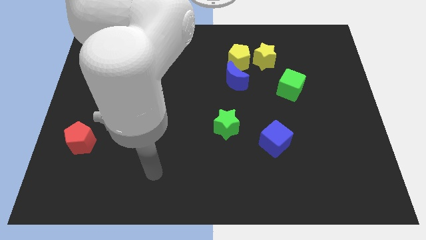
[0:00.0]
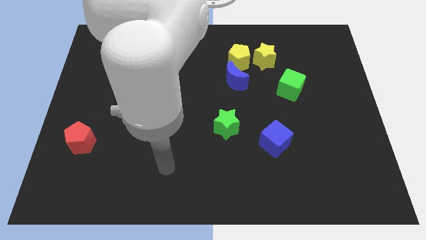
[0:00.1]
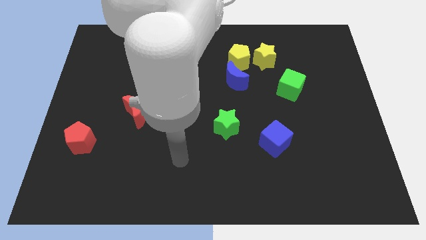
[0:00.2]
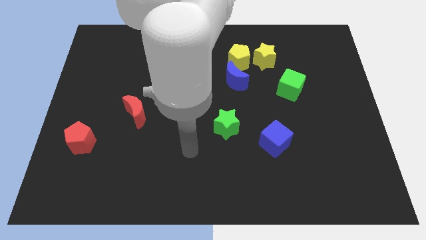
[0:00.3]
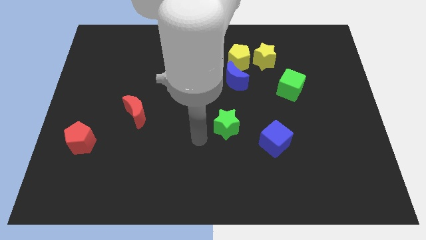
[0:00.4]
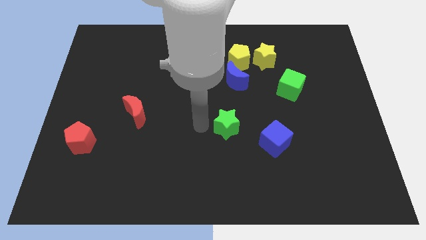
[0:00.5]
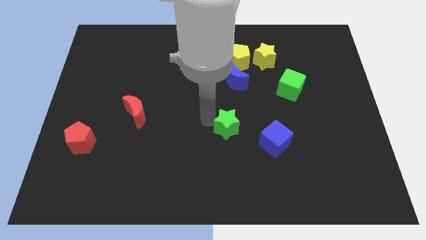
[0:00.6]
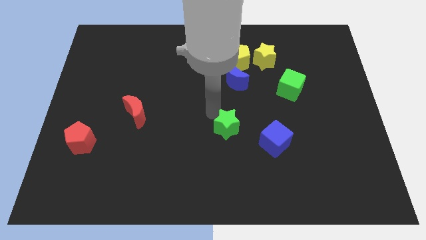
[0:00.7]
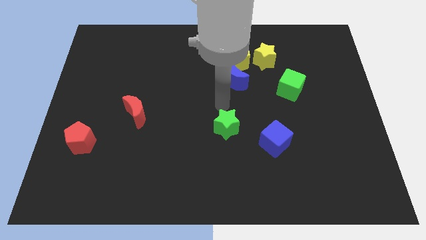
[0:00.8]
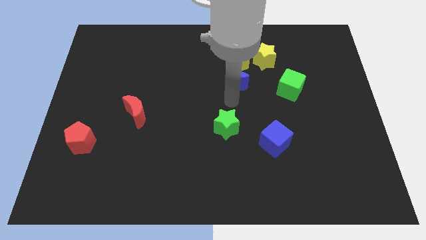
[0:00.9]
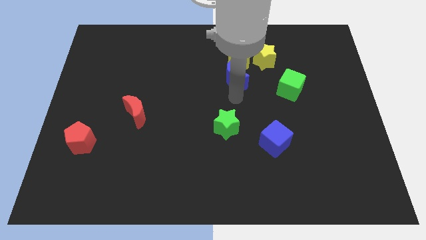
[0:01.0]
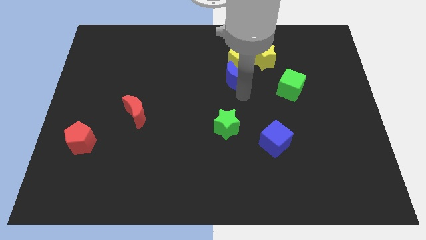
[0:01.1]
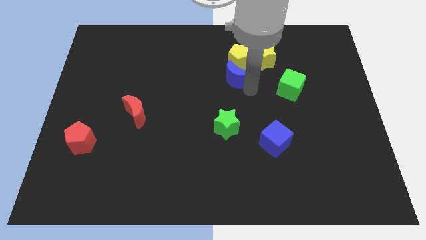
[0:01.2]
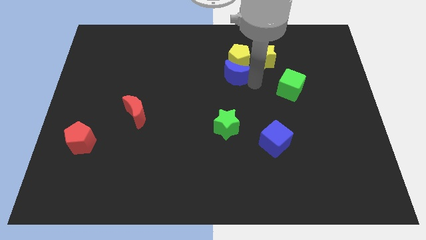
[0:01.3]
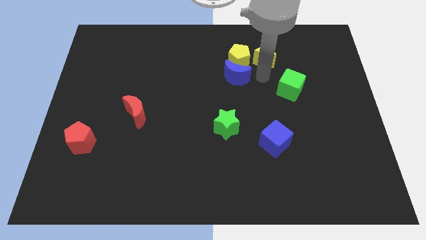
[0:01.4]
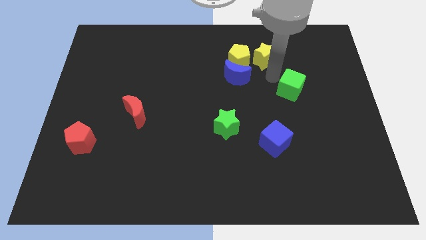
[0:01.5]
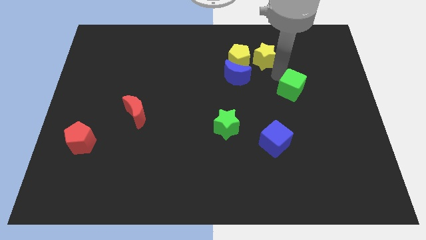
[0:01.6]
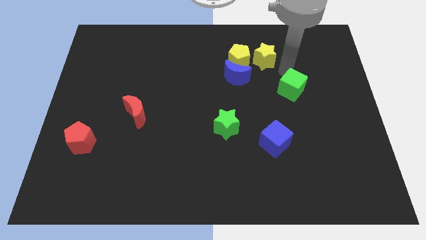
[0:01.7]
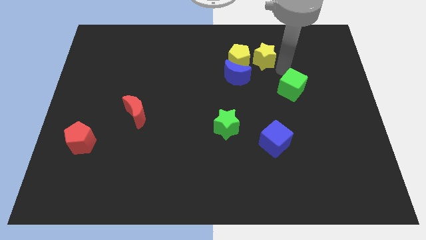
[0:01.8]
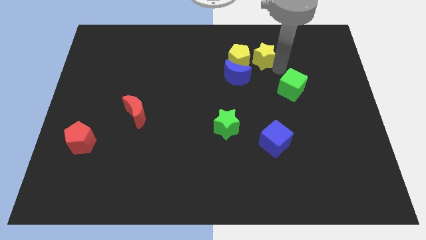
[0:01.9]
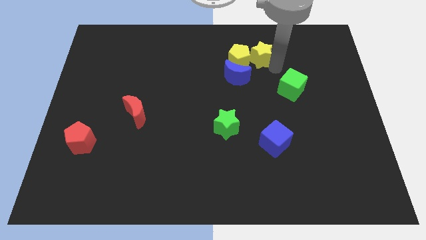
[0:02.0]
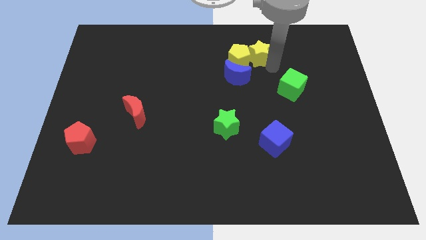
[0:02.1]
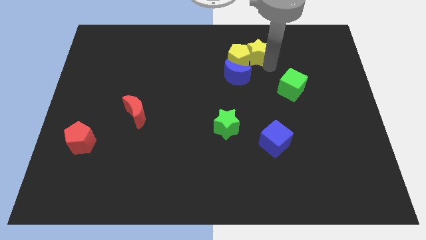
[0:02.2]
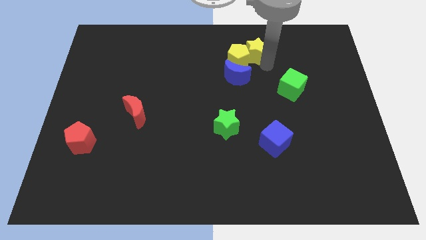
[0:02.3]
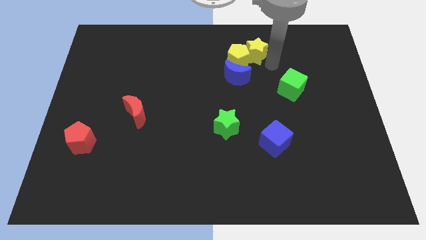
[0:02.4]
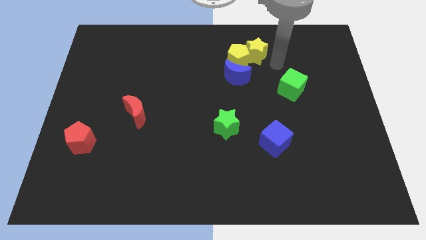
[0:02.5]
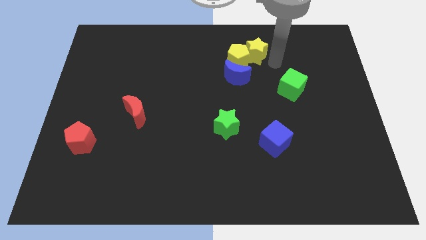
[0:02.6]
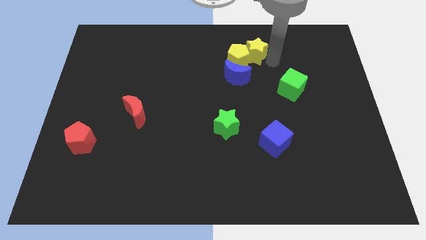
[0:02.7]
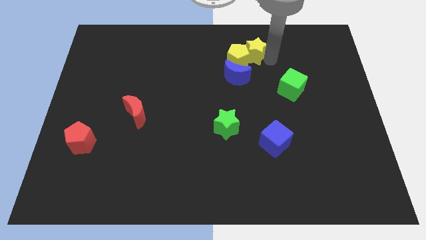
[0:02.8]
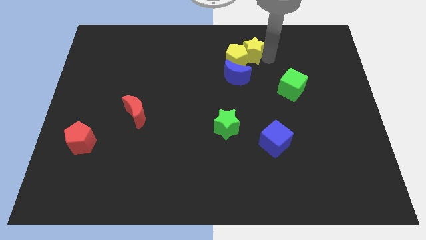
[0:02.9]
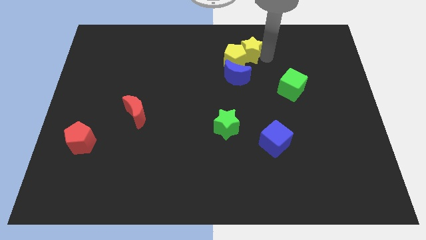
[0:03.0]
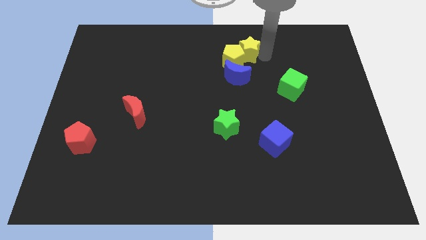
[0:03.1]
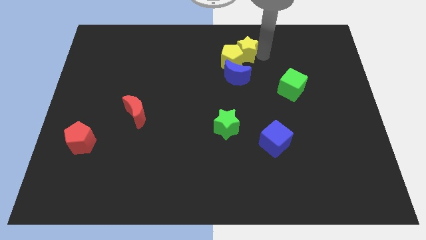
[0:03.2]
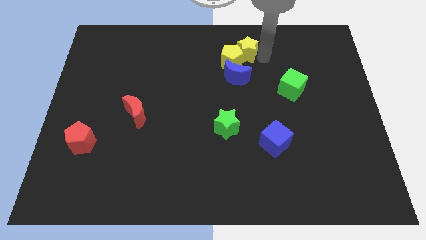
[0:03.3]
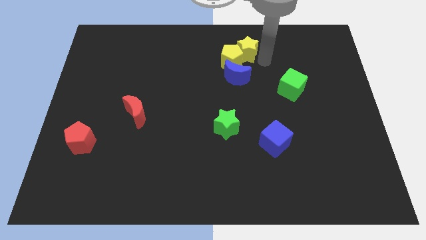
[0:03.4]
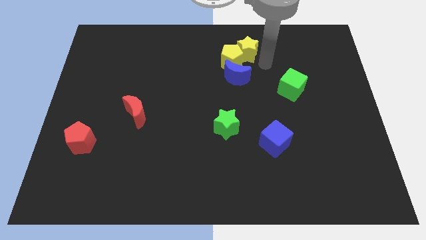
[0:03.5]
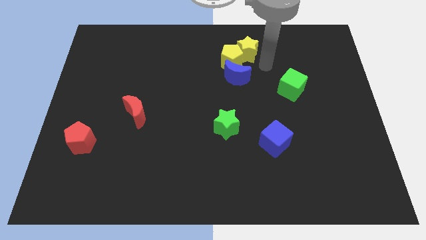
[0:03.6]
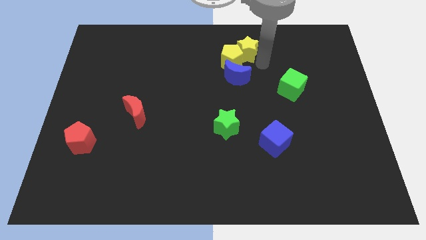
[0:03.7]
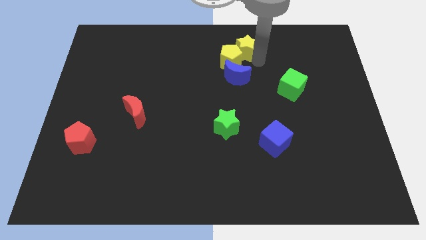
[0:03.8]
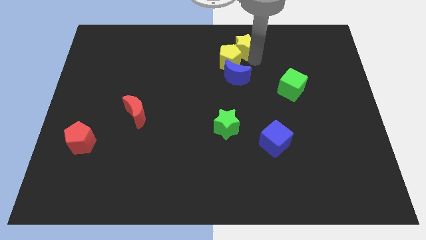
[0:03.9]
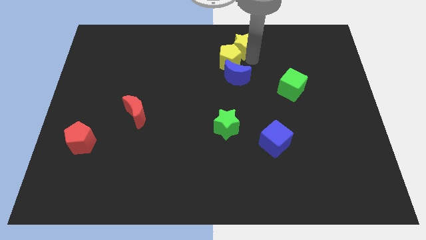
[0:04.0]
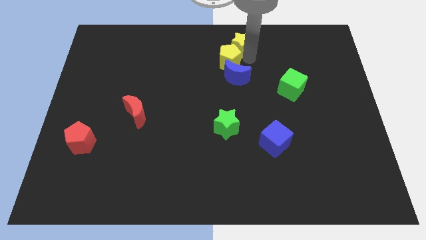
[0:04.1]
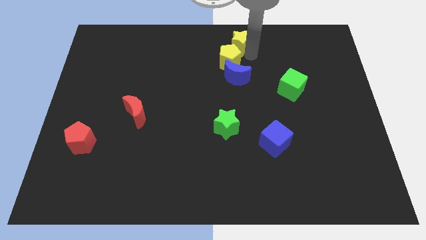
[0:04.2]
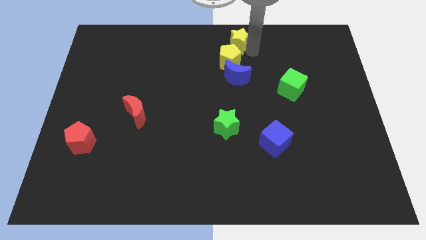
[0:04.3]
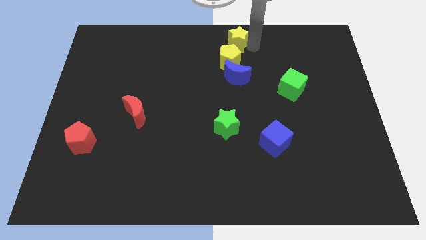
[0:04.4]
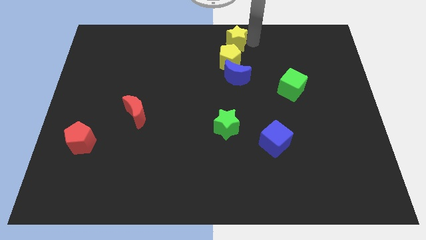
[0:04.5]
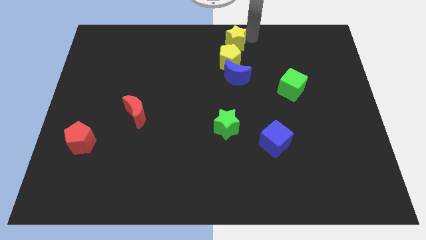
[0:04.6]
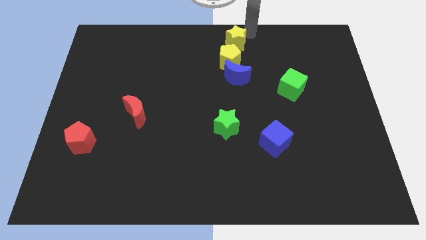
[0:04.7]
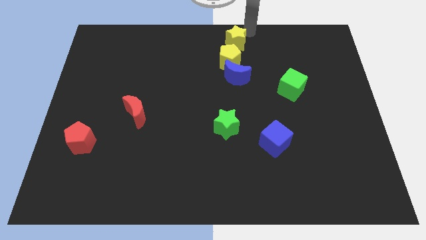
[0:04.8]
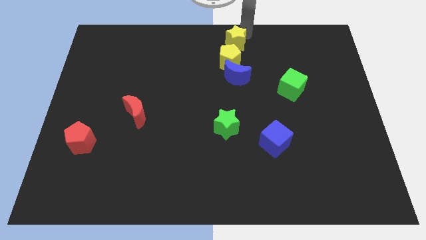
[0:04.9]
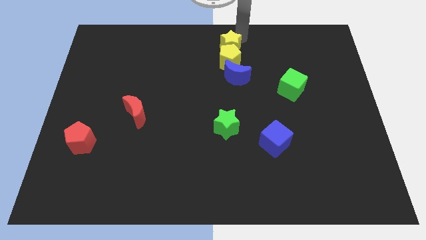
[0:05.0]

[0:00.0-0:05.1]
move the yellow star left a little

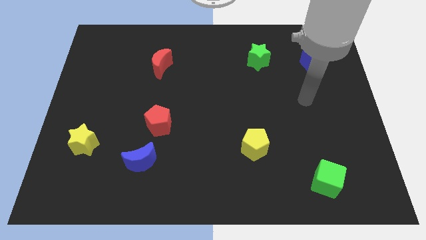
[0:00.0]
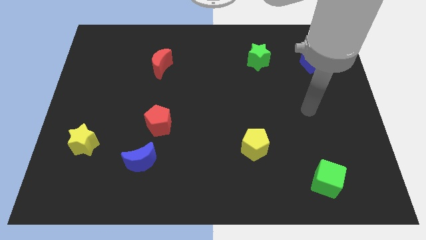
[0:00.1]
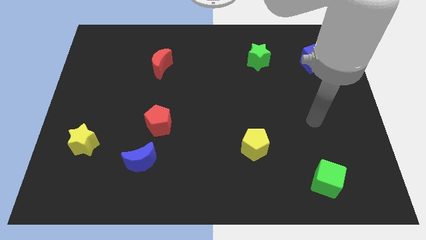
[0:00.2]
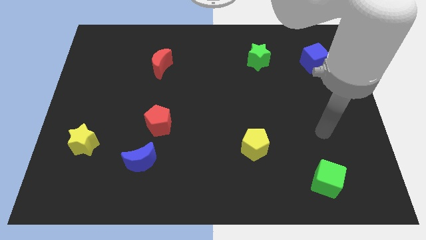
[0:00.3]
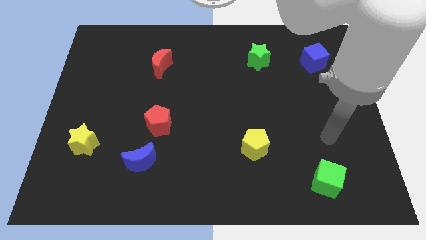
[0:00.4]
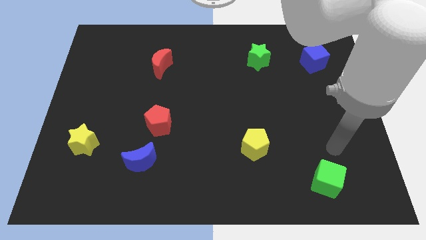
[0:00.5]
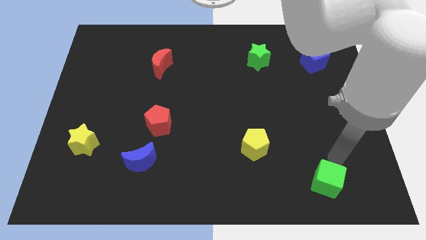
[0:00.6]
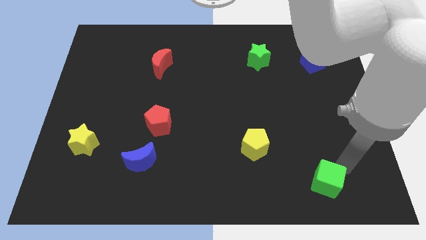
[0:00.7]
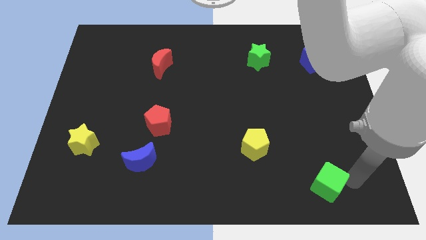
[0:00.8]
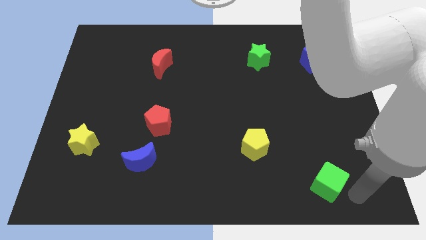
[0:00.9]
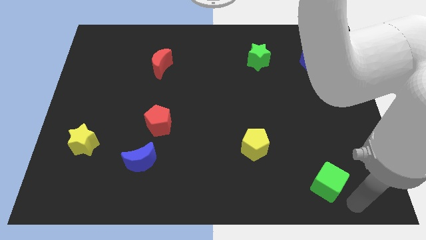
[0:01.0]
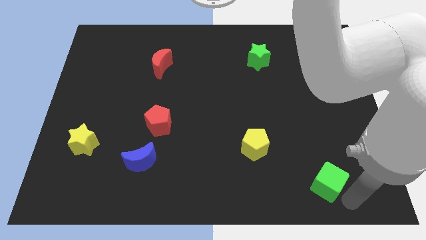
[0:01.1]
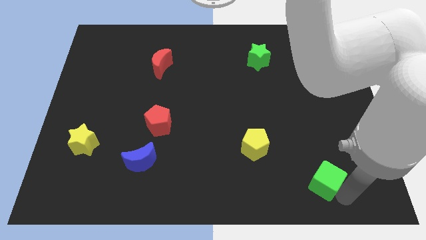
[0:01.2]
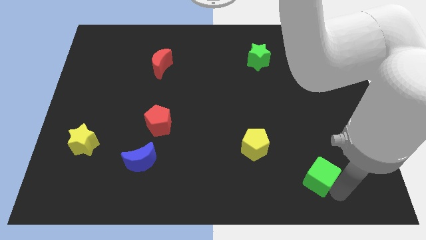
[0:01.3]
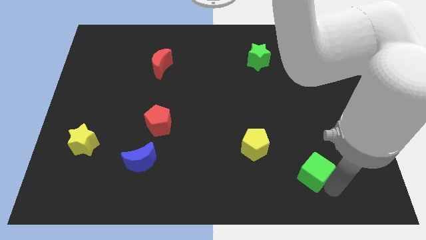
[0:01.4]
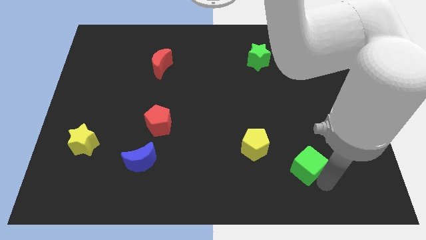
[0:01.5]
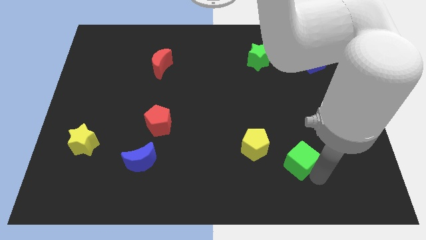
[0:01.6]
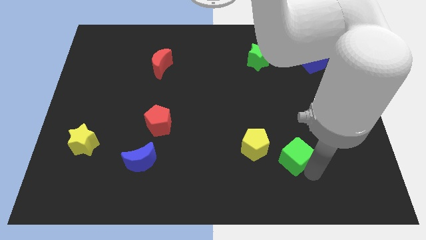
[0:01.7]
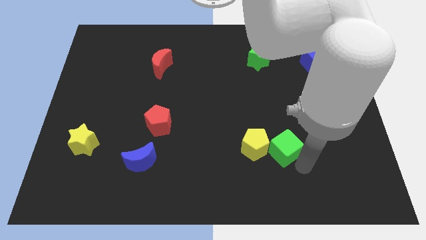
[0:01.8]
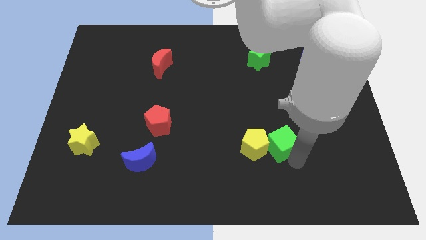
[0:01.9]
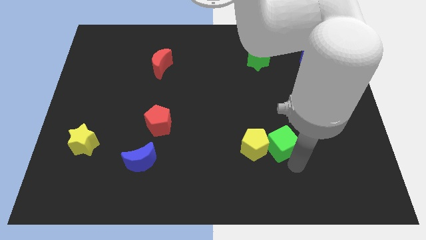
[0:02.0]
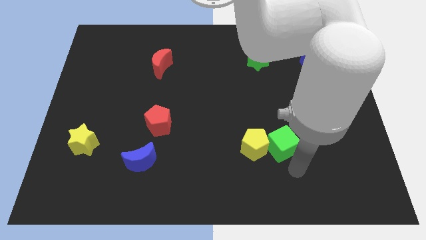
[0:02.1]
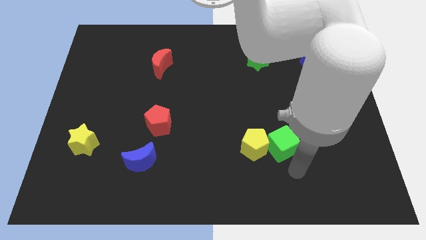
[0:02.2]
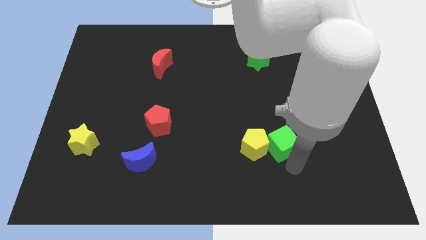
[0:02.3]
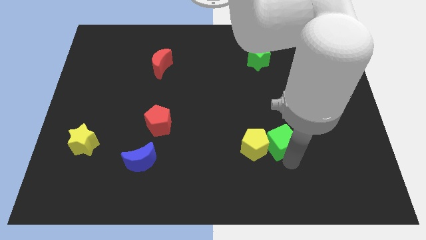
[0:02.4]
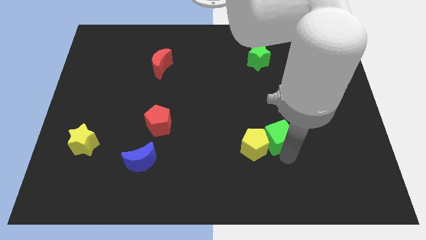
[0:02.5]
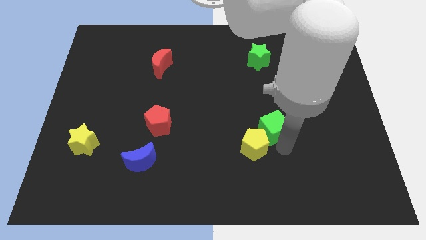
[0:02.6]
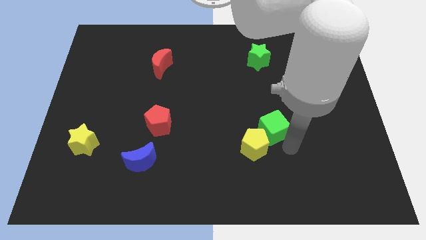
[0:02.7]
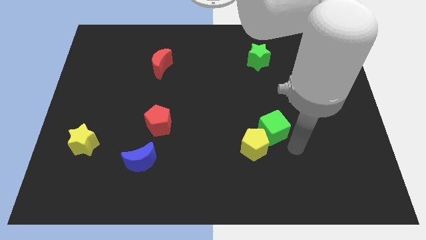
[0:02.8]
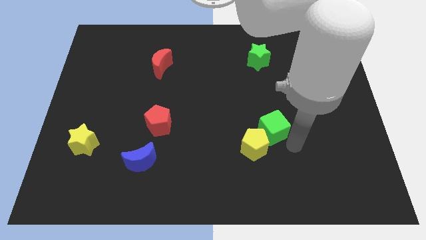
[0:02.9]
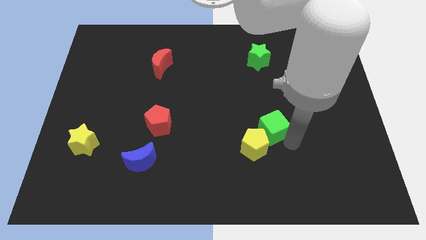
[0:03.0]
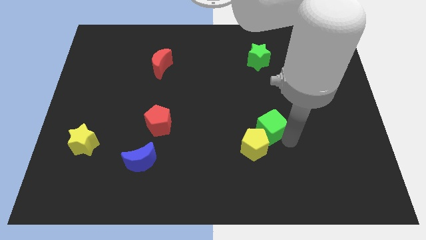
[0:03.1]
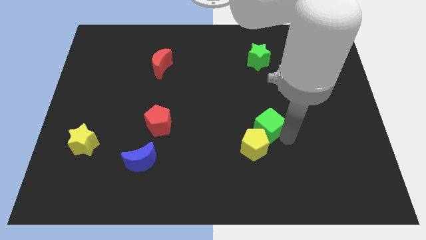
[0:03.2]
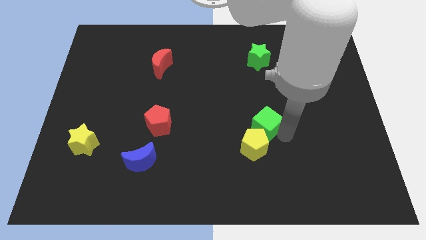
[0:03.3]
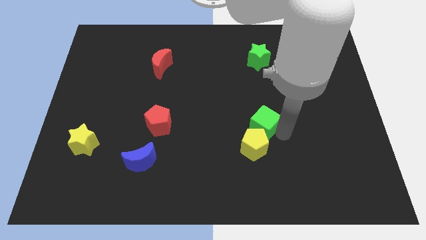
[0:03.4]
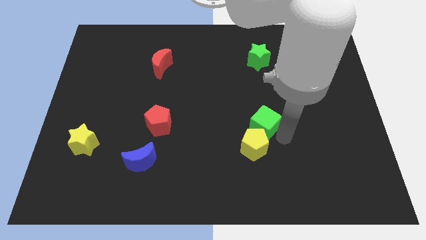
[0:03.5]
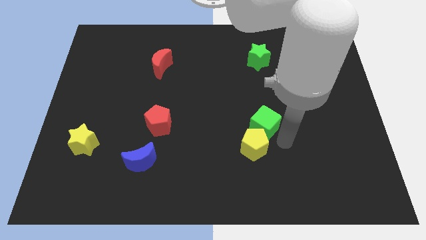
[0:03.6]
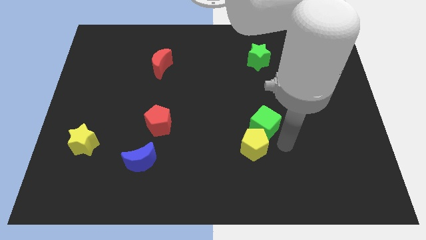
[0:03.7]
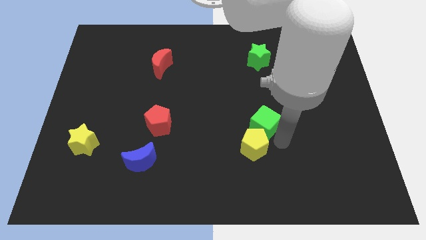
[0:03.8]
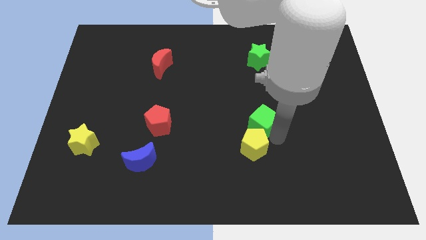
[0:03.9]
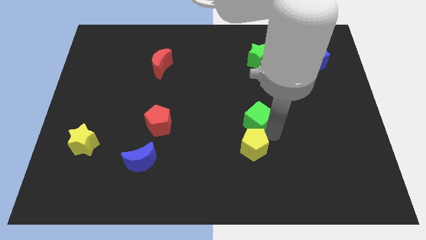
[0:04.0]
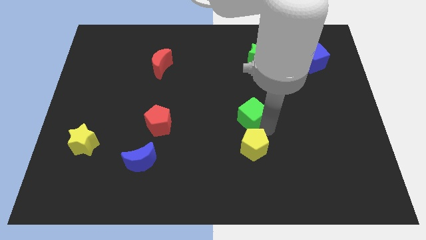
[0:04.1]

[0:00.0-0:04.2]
move the green cube upwards and then to the left
